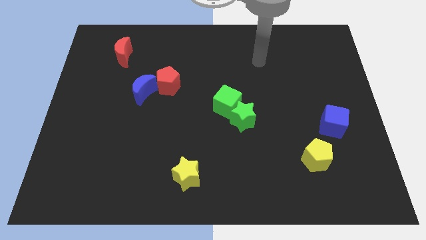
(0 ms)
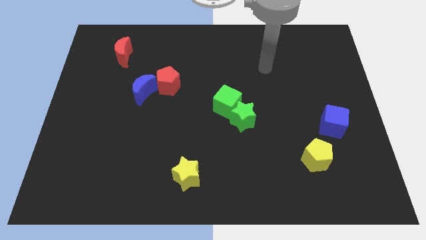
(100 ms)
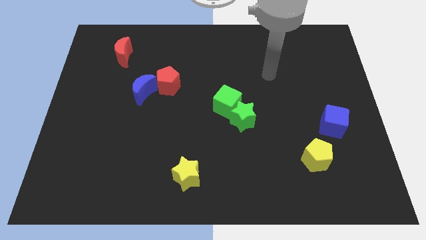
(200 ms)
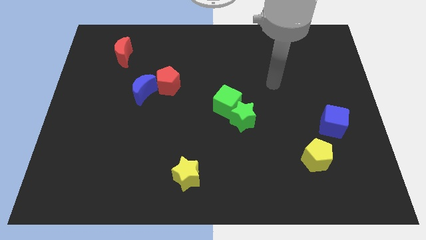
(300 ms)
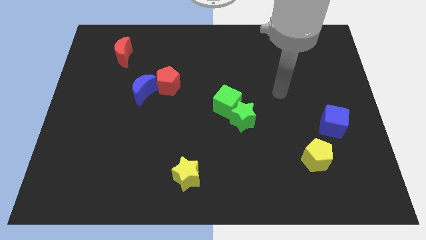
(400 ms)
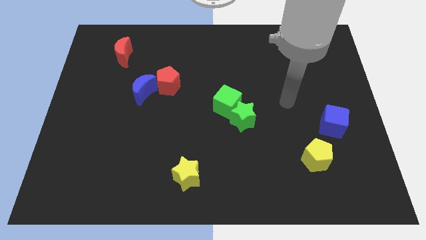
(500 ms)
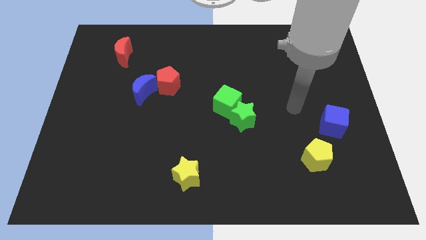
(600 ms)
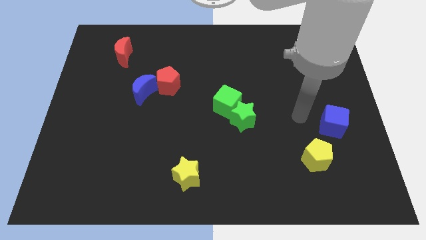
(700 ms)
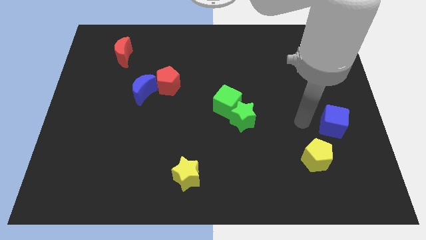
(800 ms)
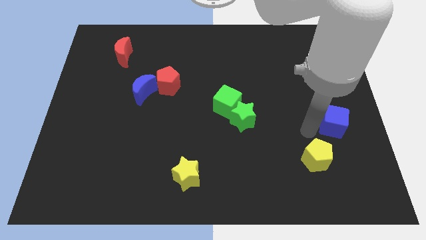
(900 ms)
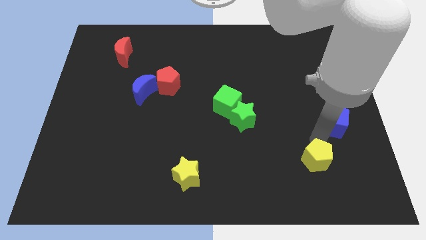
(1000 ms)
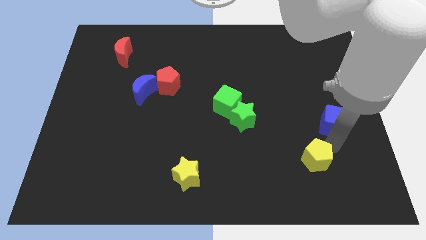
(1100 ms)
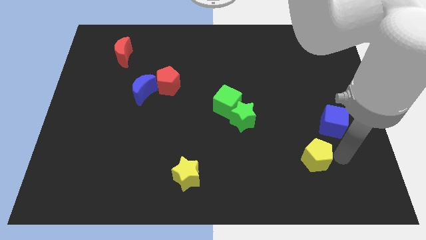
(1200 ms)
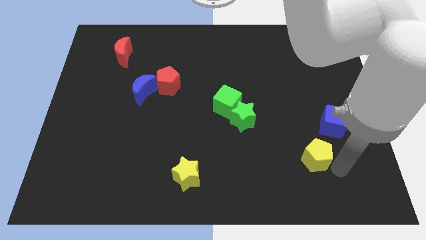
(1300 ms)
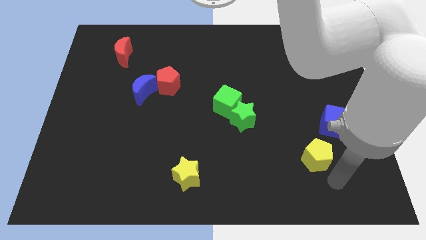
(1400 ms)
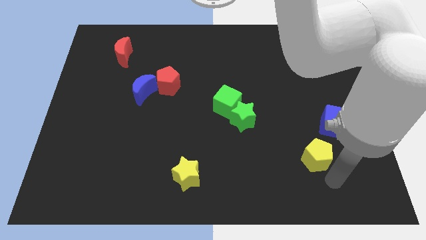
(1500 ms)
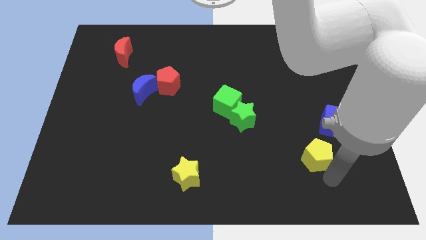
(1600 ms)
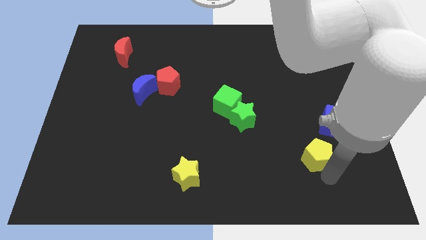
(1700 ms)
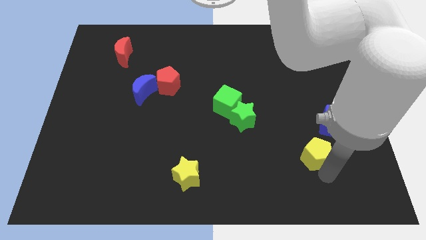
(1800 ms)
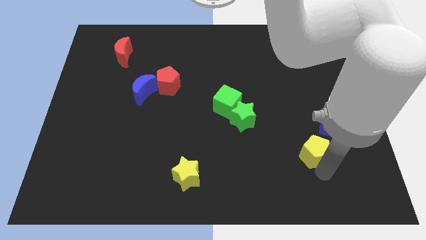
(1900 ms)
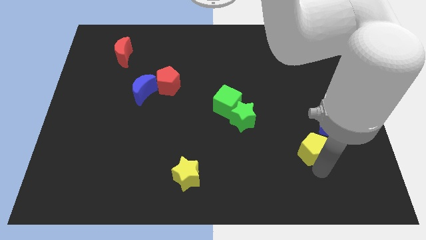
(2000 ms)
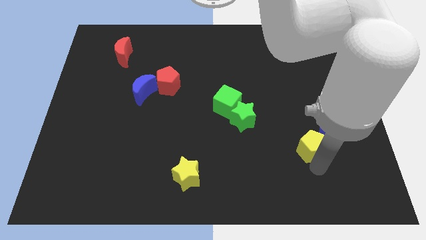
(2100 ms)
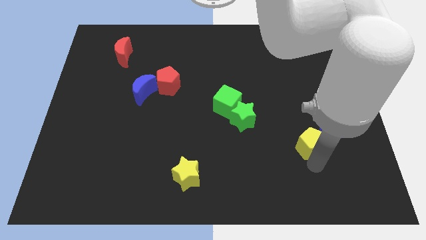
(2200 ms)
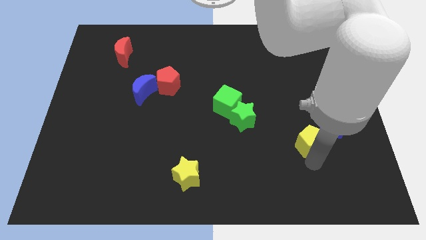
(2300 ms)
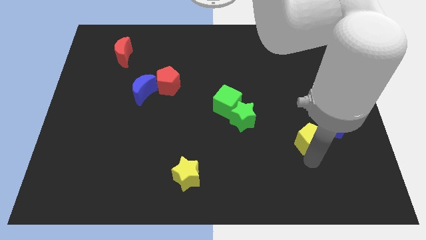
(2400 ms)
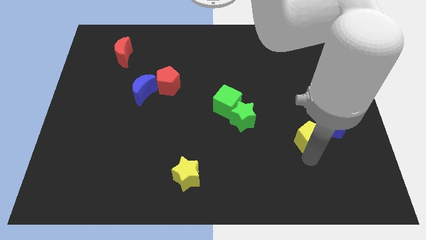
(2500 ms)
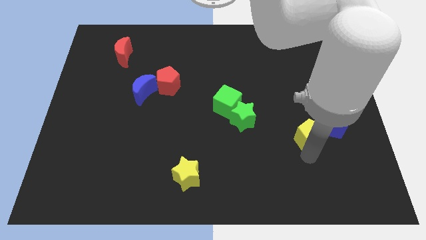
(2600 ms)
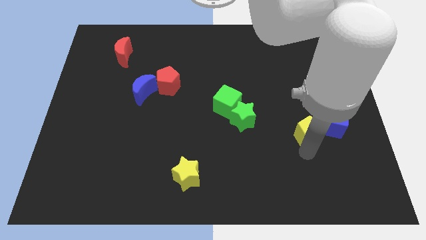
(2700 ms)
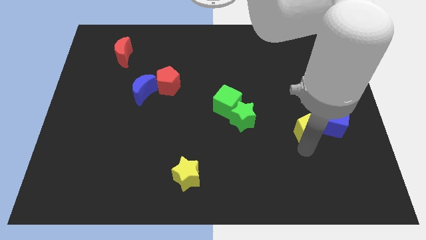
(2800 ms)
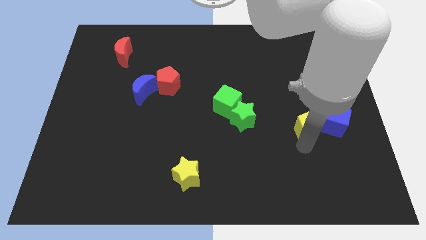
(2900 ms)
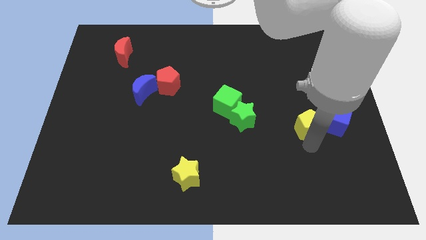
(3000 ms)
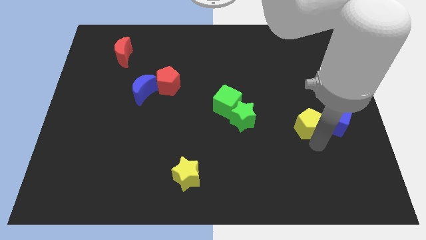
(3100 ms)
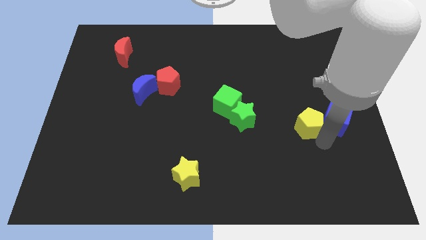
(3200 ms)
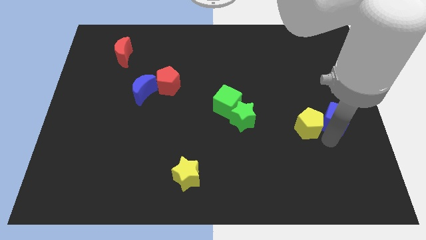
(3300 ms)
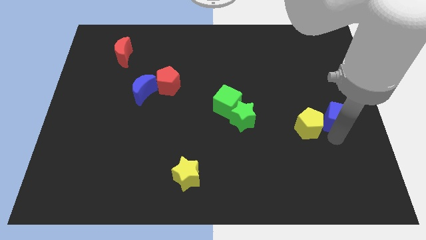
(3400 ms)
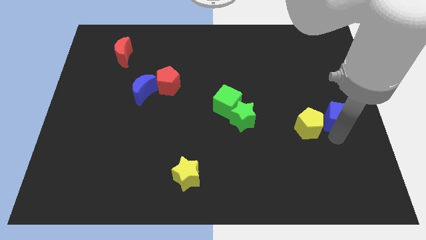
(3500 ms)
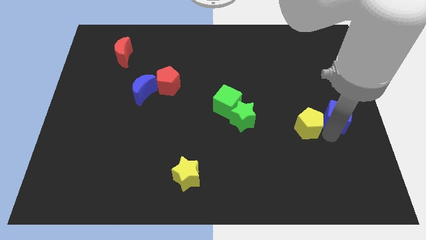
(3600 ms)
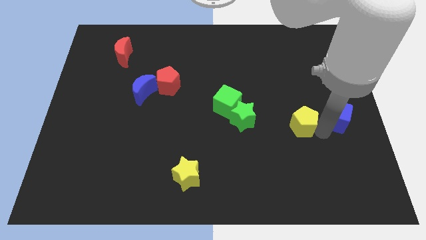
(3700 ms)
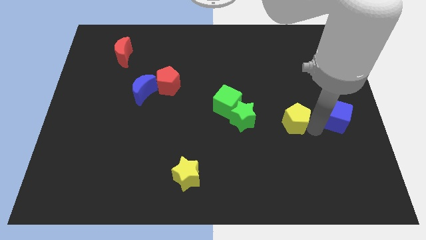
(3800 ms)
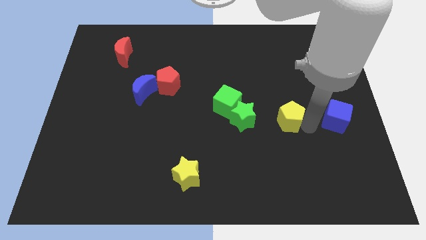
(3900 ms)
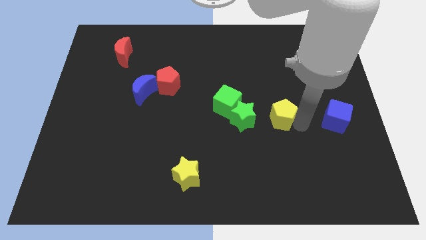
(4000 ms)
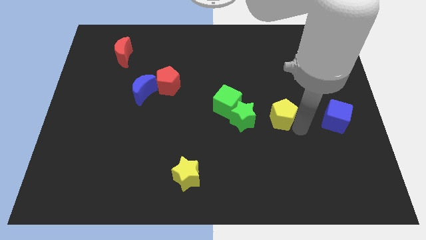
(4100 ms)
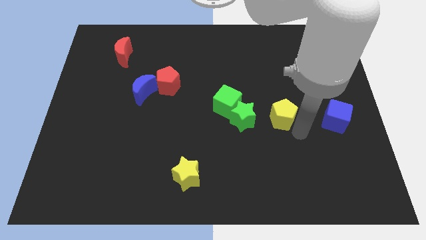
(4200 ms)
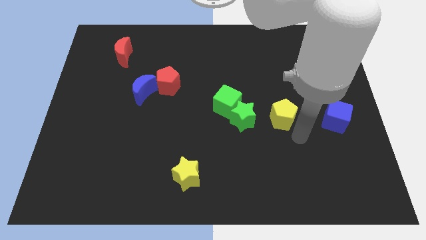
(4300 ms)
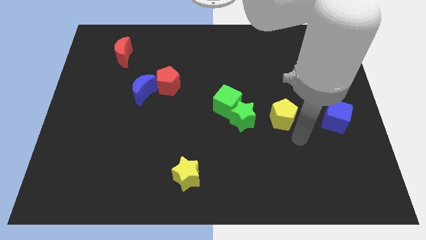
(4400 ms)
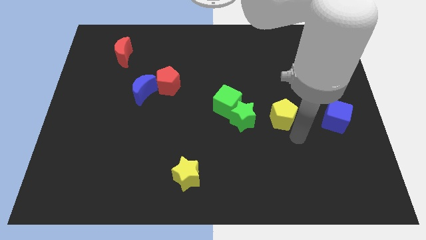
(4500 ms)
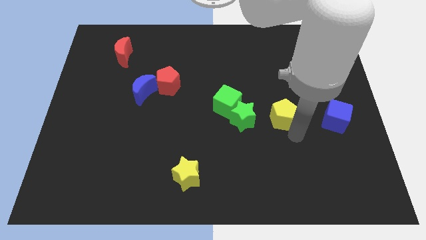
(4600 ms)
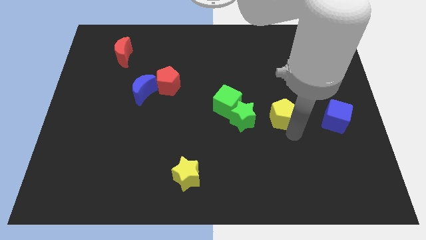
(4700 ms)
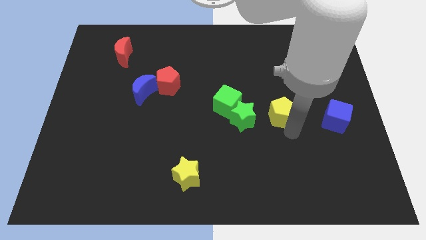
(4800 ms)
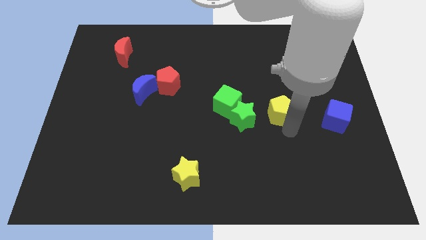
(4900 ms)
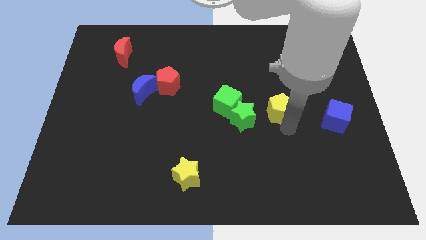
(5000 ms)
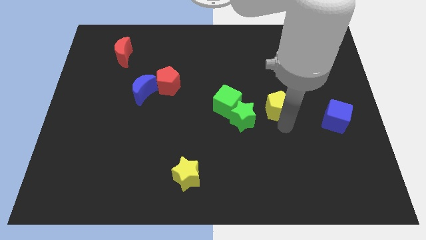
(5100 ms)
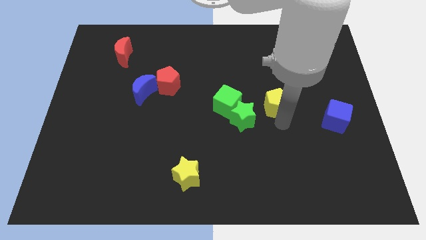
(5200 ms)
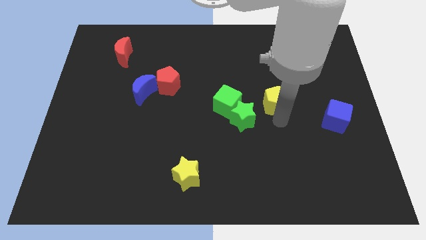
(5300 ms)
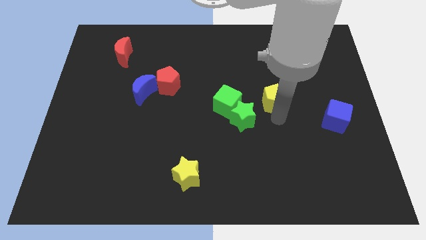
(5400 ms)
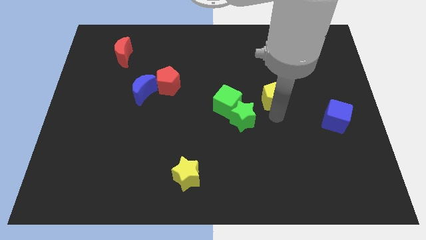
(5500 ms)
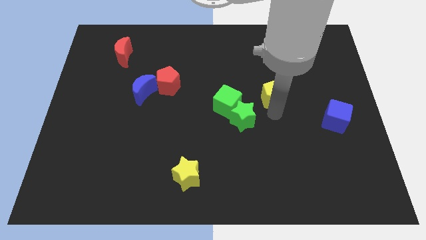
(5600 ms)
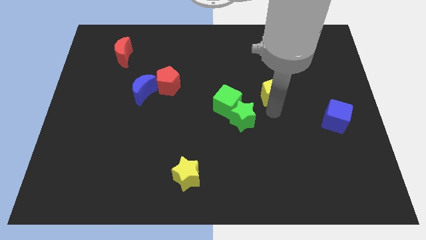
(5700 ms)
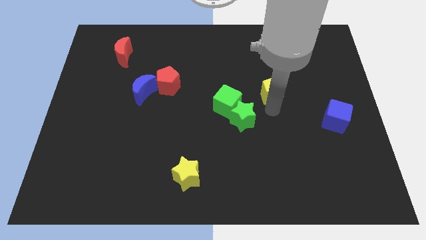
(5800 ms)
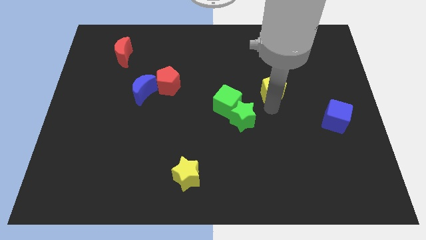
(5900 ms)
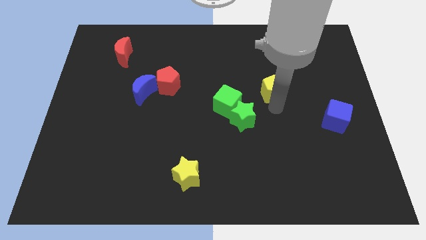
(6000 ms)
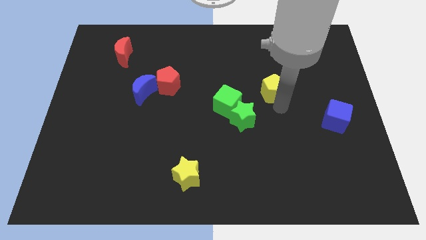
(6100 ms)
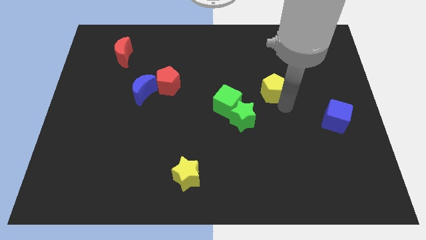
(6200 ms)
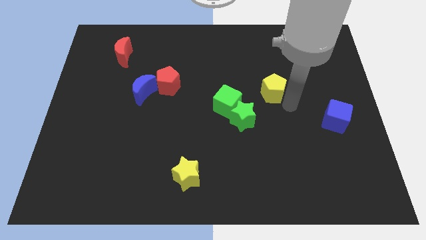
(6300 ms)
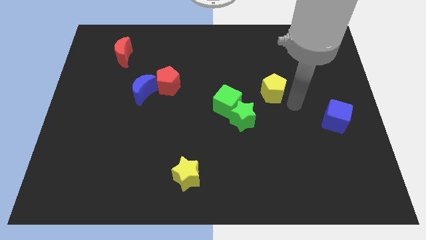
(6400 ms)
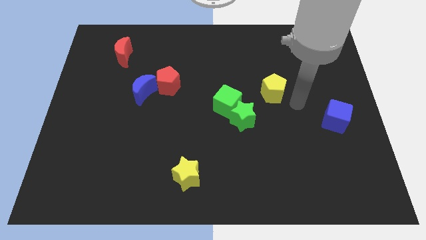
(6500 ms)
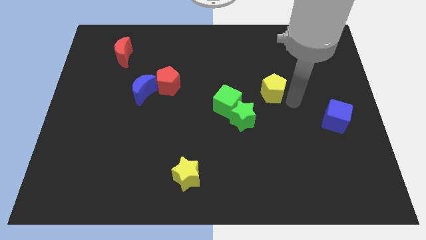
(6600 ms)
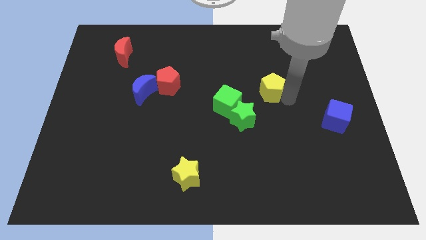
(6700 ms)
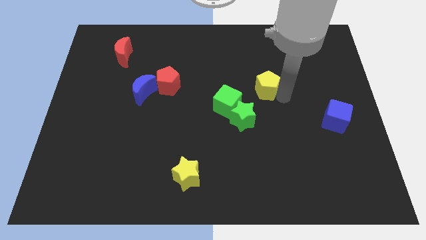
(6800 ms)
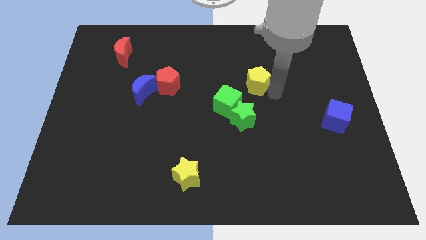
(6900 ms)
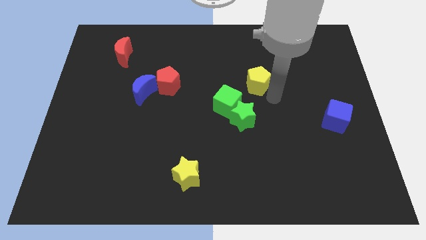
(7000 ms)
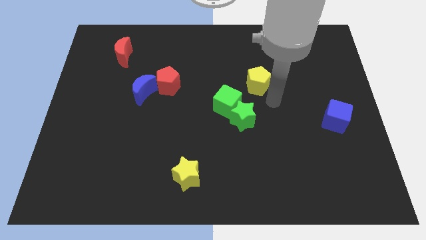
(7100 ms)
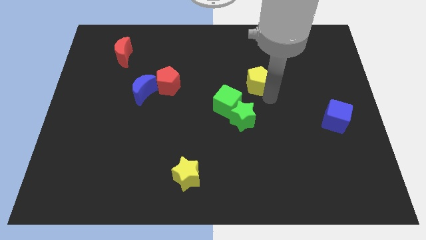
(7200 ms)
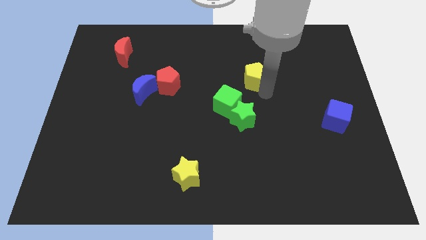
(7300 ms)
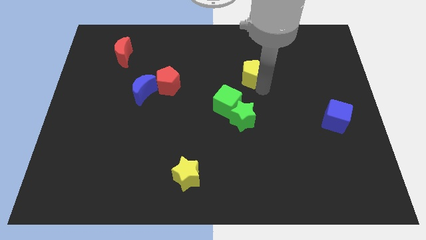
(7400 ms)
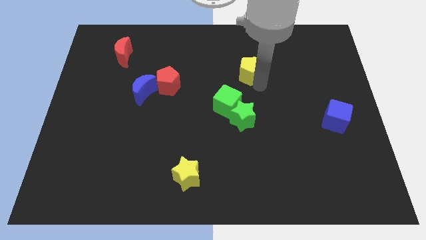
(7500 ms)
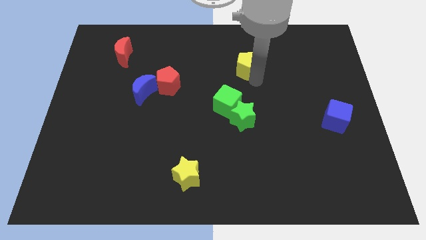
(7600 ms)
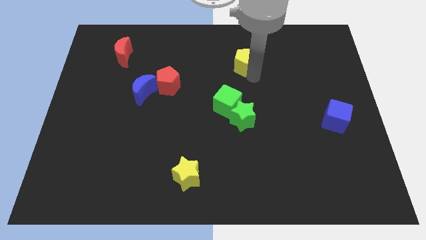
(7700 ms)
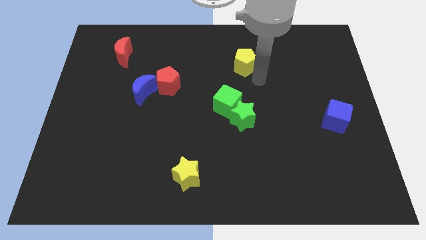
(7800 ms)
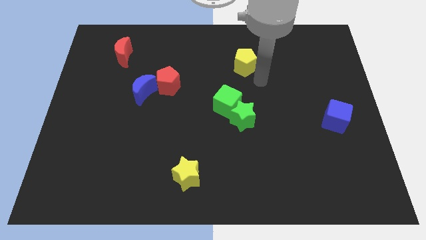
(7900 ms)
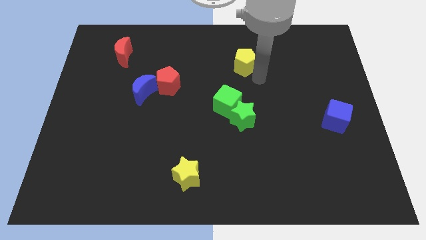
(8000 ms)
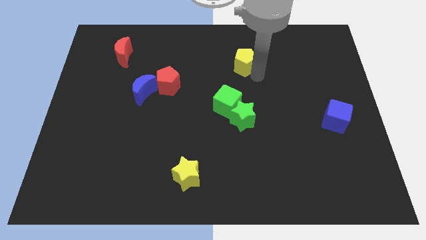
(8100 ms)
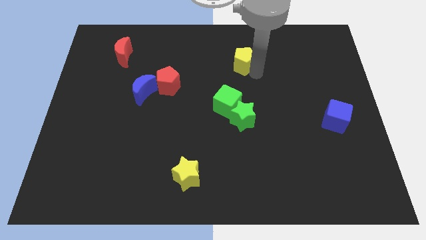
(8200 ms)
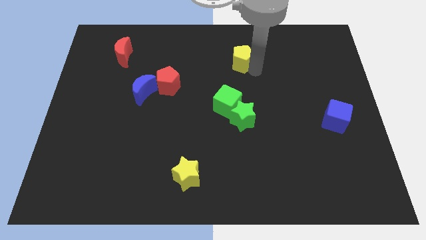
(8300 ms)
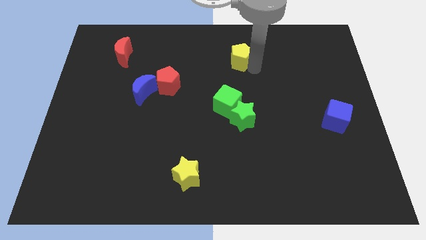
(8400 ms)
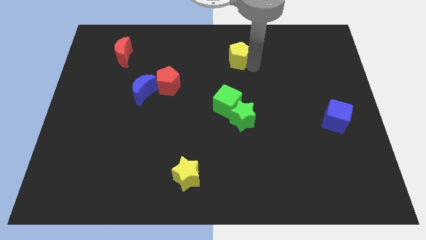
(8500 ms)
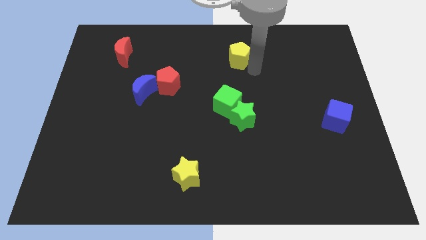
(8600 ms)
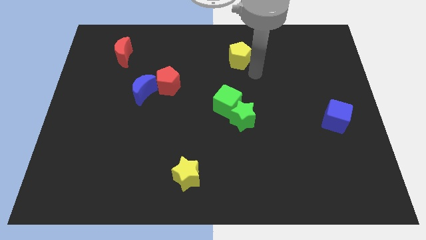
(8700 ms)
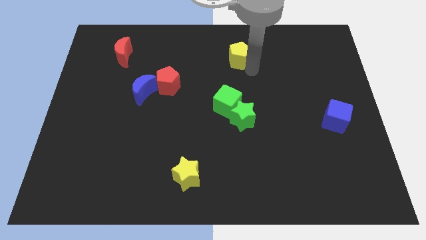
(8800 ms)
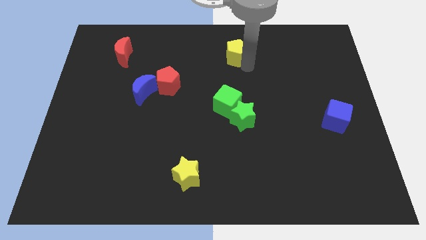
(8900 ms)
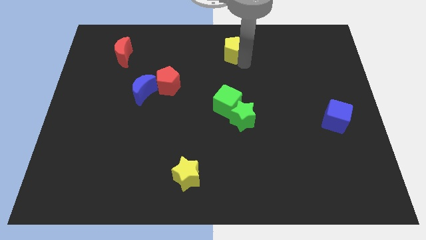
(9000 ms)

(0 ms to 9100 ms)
slide the yellow pentagon to the top side
